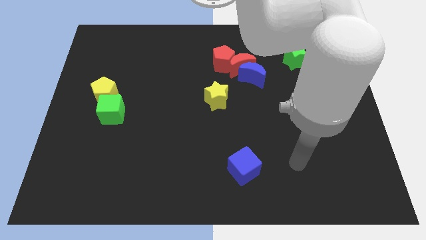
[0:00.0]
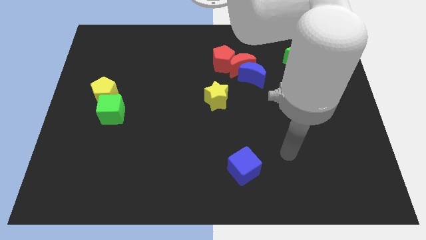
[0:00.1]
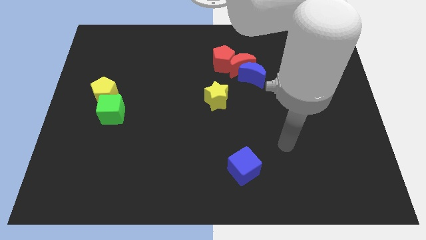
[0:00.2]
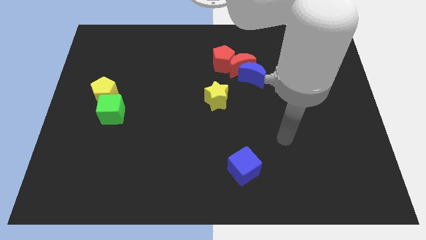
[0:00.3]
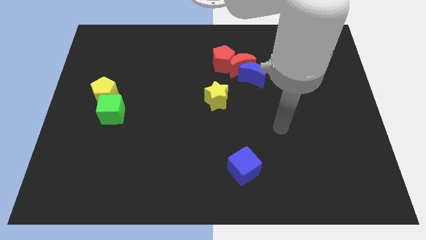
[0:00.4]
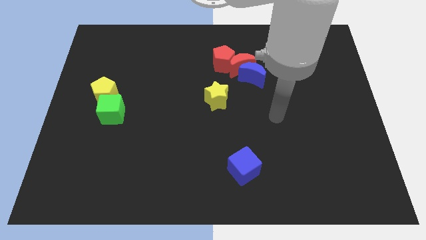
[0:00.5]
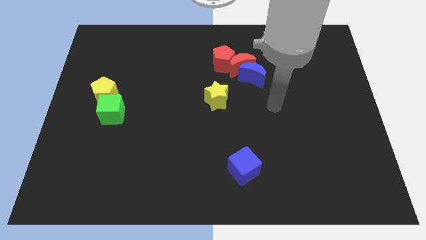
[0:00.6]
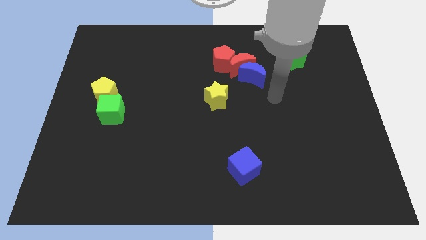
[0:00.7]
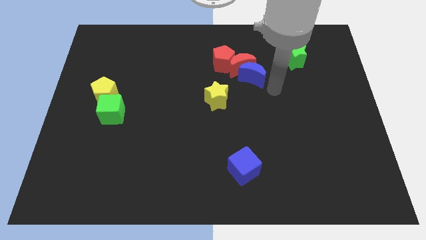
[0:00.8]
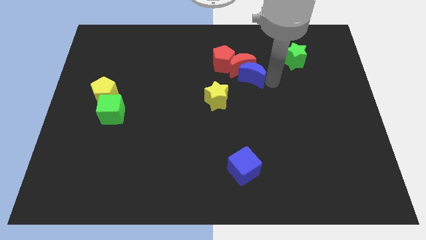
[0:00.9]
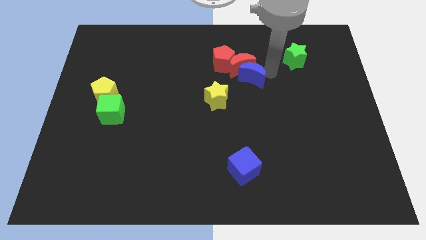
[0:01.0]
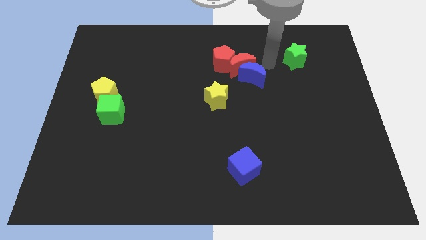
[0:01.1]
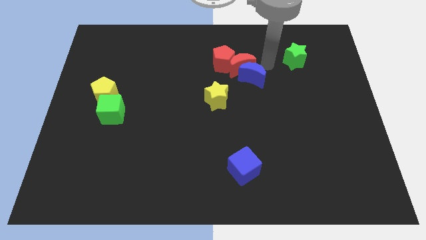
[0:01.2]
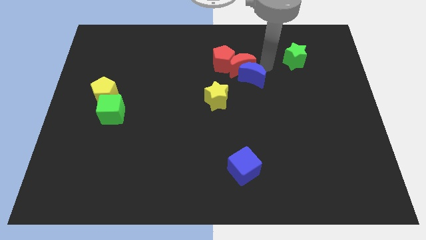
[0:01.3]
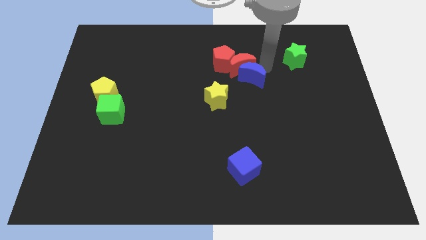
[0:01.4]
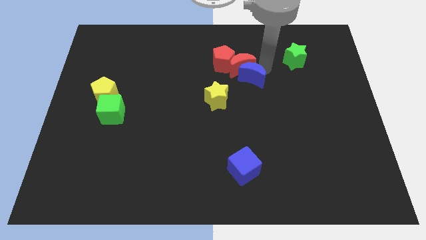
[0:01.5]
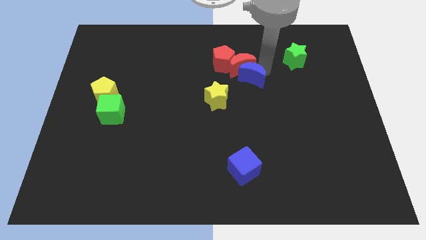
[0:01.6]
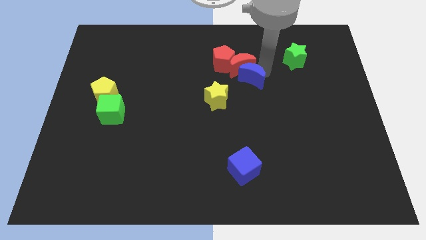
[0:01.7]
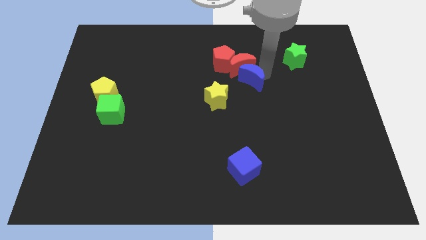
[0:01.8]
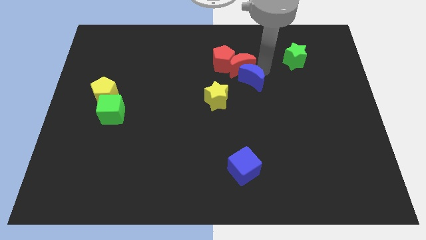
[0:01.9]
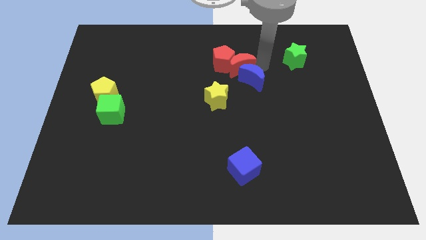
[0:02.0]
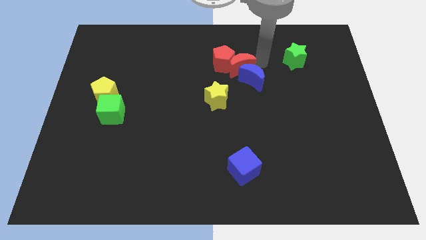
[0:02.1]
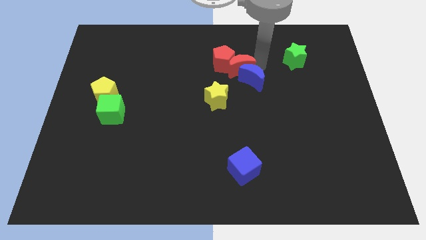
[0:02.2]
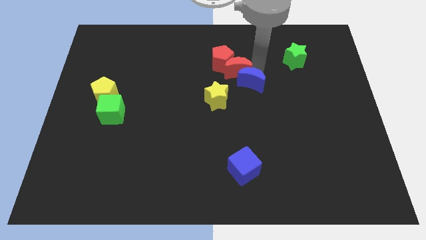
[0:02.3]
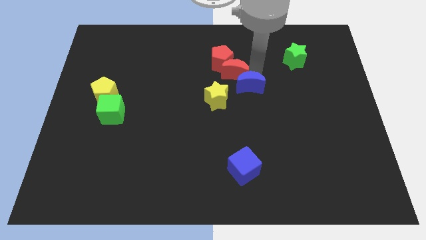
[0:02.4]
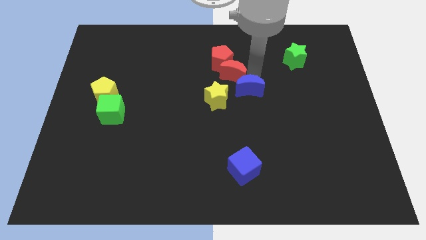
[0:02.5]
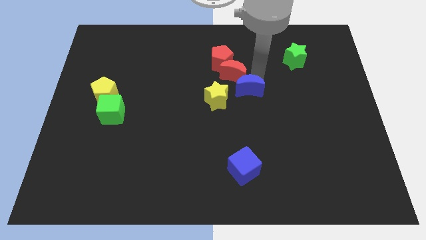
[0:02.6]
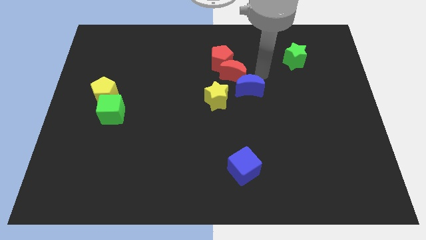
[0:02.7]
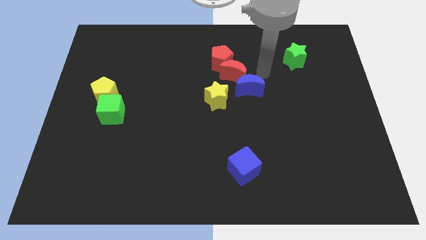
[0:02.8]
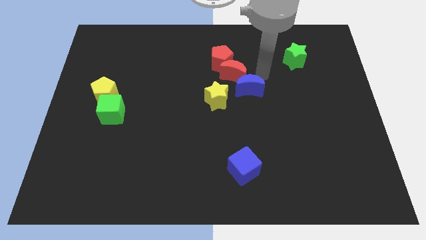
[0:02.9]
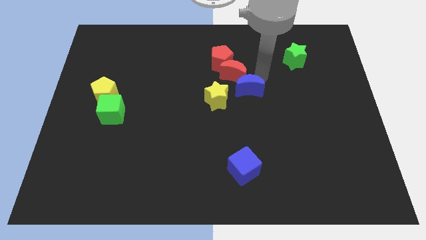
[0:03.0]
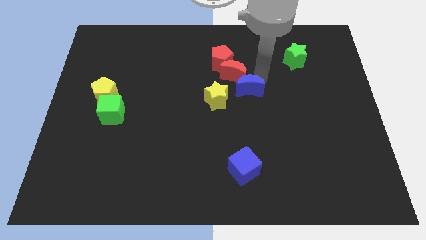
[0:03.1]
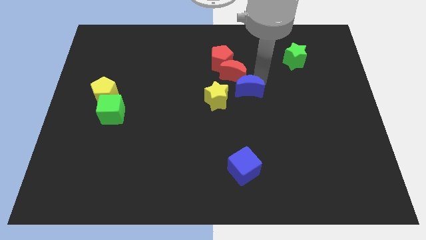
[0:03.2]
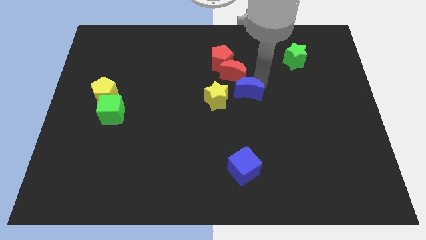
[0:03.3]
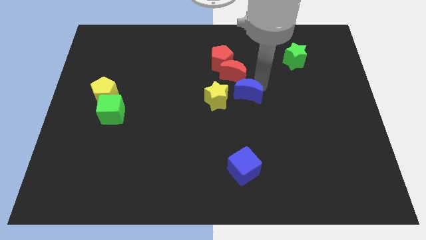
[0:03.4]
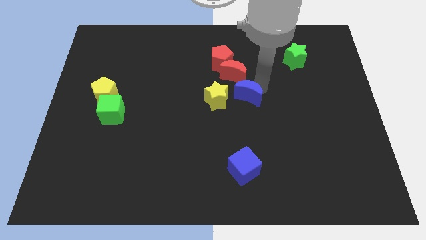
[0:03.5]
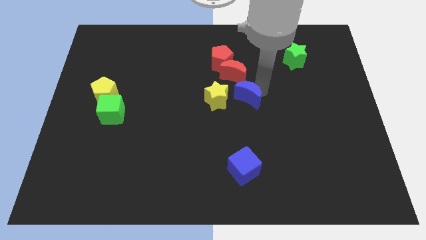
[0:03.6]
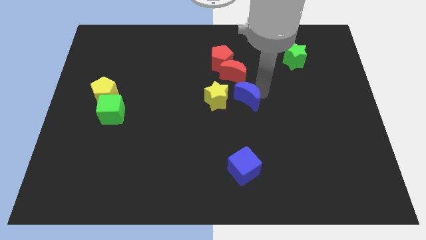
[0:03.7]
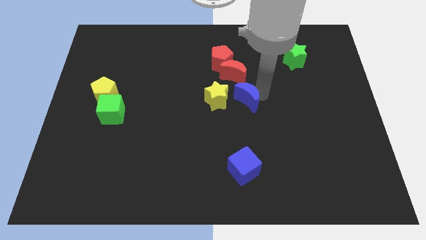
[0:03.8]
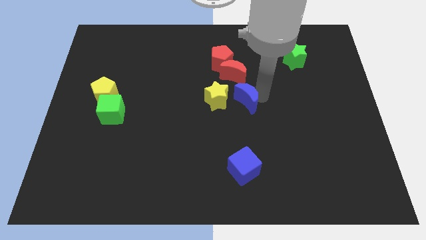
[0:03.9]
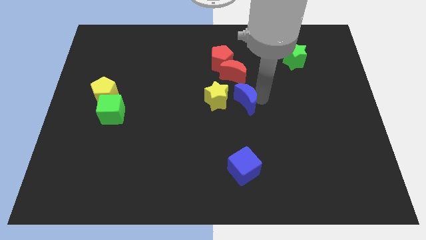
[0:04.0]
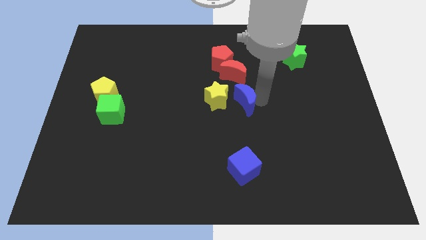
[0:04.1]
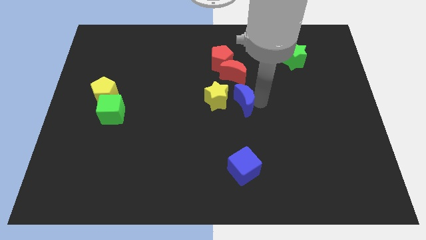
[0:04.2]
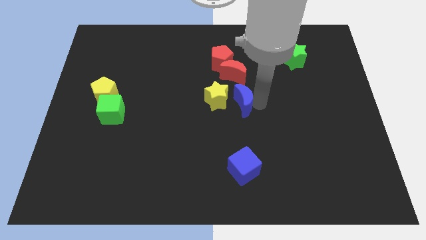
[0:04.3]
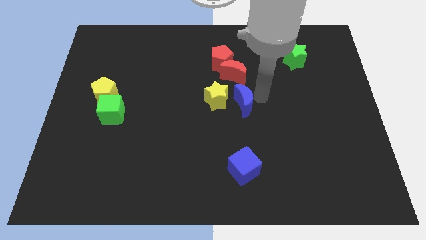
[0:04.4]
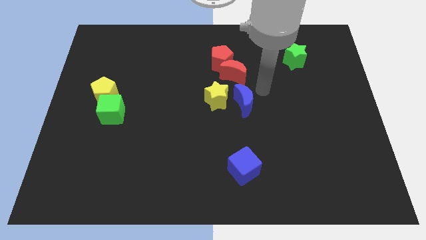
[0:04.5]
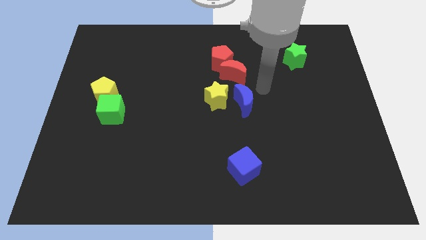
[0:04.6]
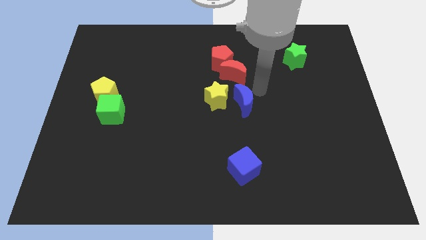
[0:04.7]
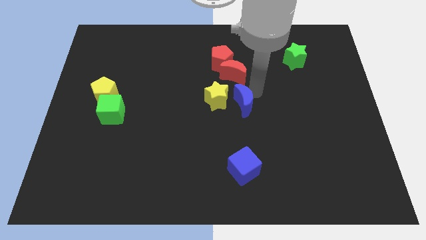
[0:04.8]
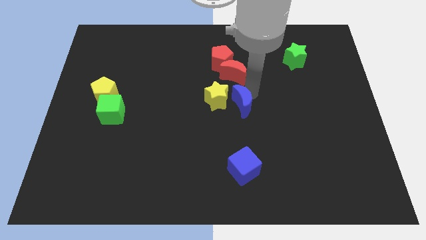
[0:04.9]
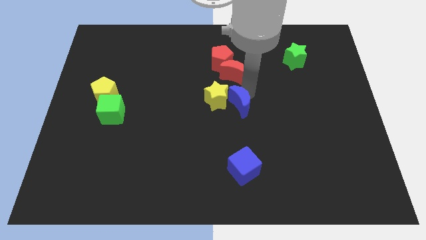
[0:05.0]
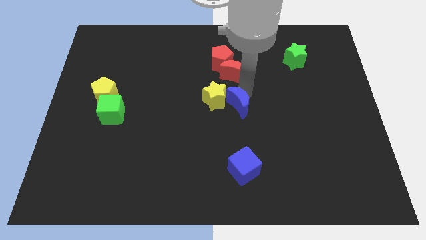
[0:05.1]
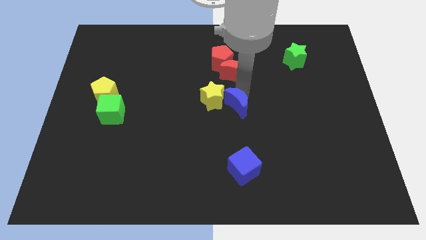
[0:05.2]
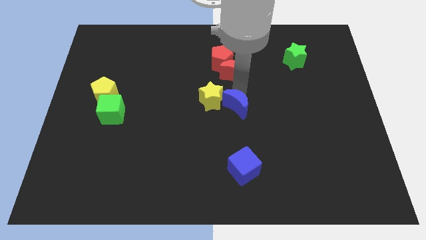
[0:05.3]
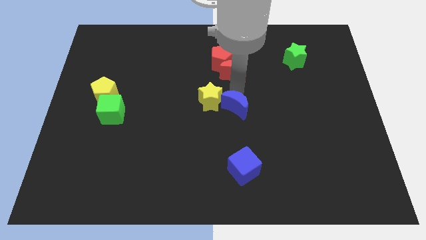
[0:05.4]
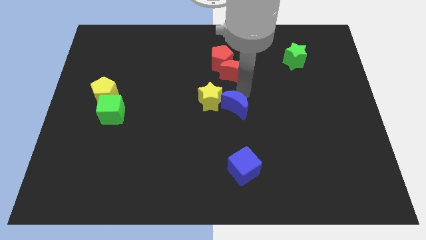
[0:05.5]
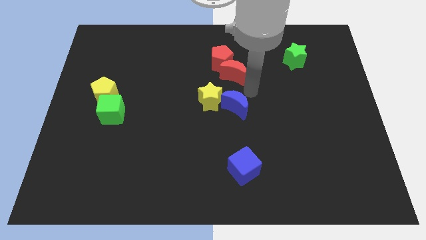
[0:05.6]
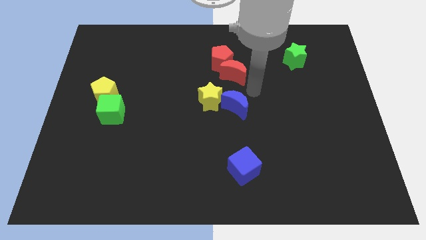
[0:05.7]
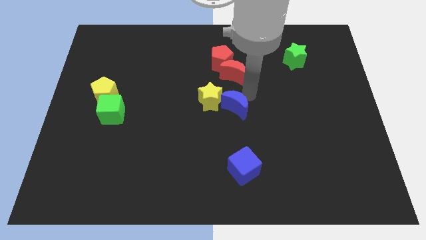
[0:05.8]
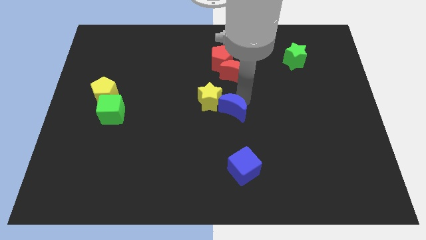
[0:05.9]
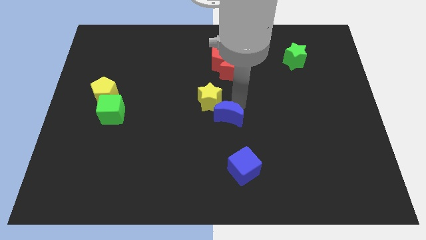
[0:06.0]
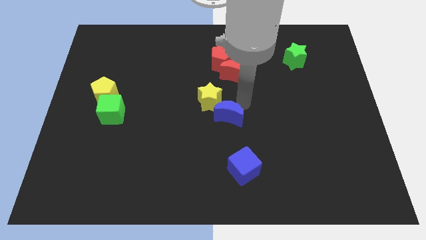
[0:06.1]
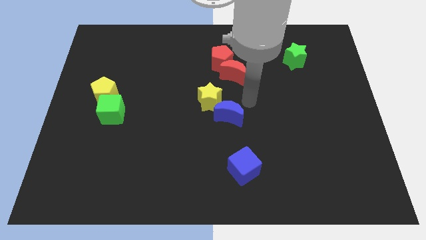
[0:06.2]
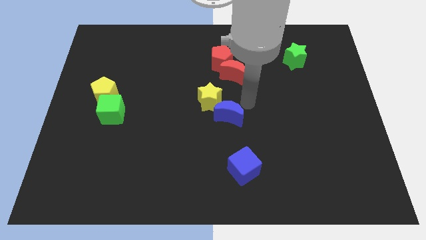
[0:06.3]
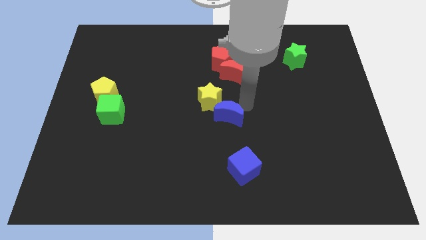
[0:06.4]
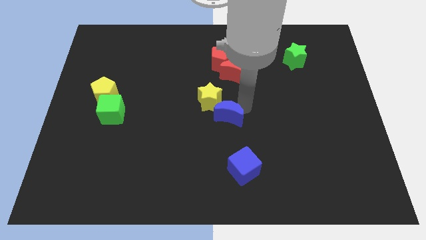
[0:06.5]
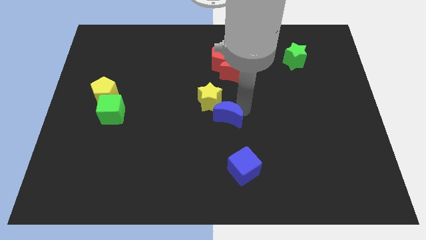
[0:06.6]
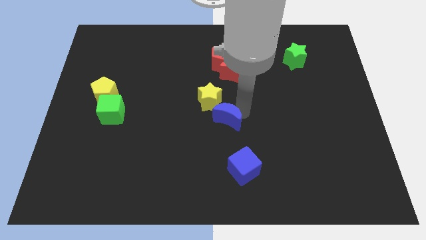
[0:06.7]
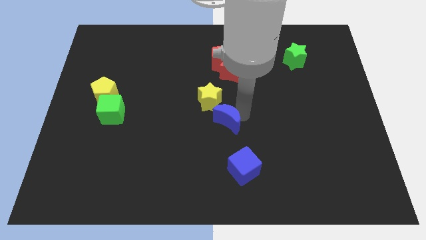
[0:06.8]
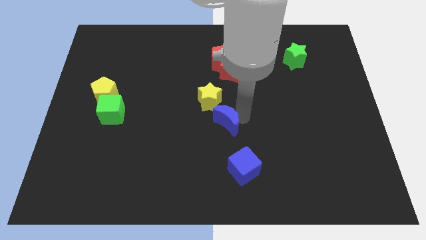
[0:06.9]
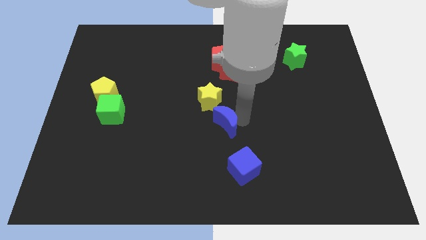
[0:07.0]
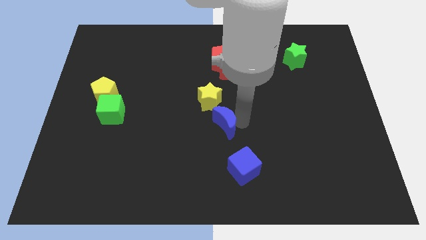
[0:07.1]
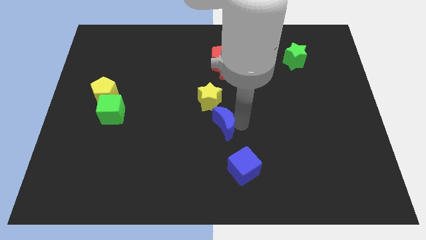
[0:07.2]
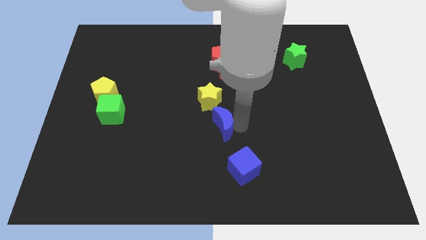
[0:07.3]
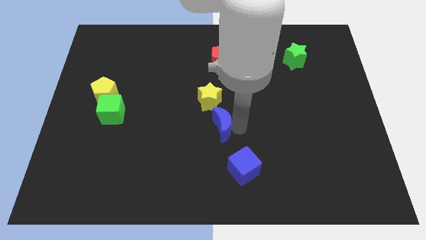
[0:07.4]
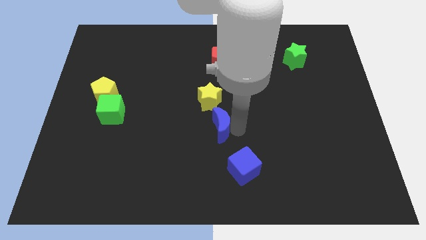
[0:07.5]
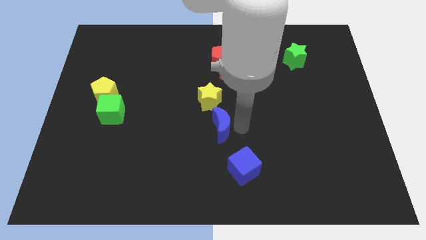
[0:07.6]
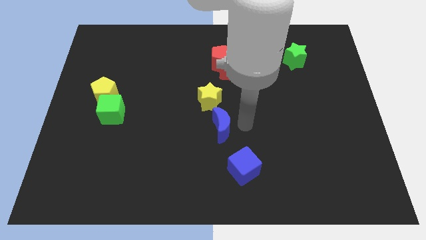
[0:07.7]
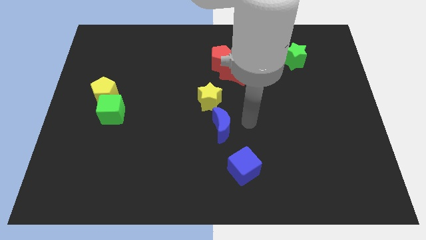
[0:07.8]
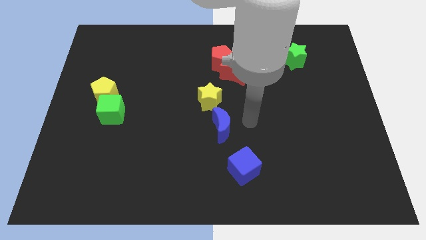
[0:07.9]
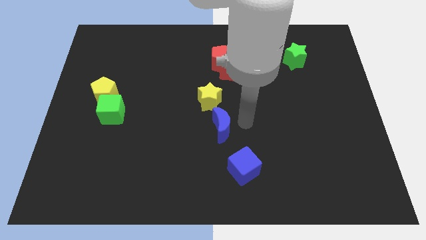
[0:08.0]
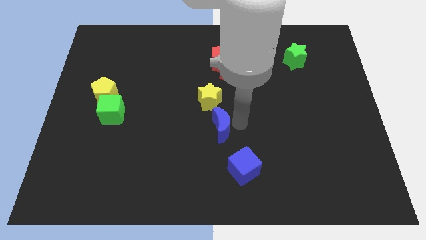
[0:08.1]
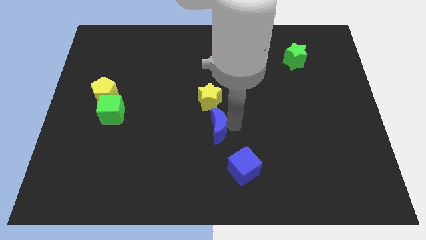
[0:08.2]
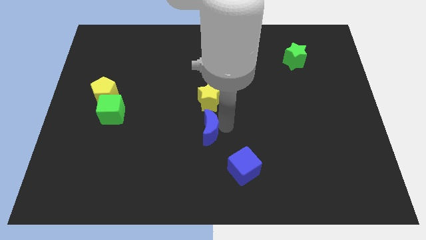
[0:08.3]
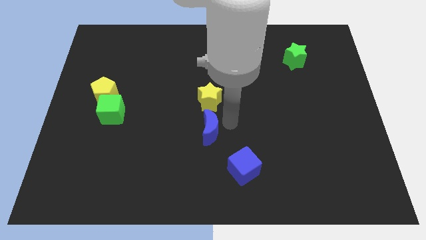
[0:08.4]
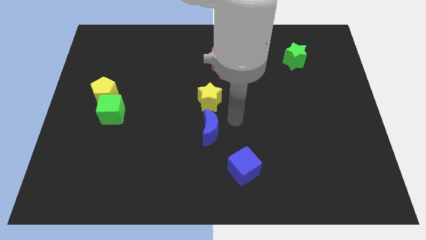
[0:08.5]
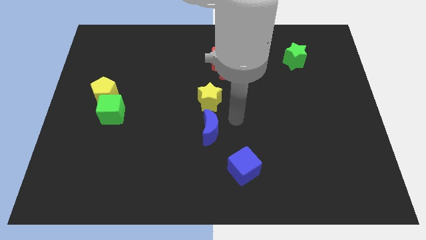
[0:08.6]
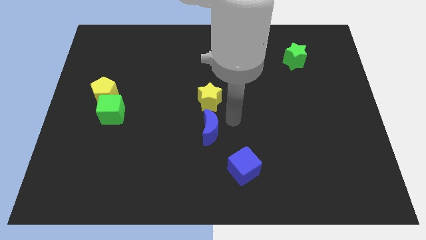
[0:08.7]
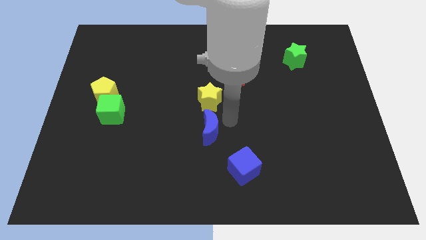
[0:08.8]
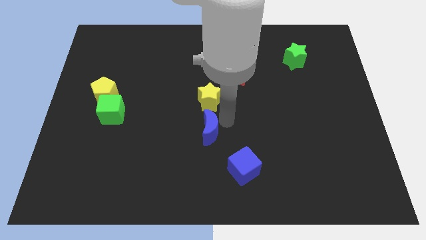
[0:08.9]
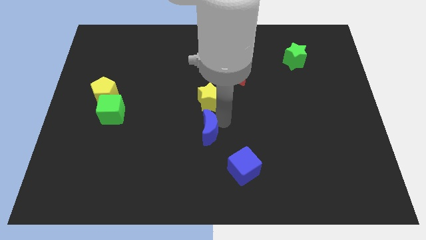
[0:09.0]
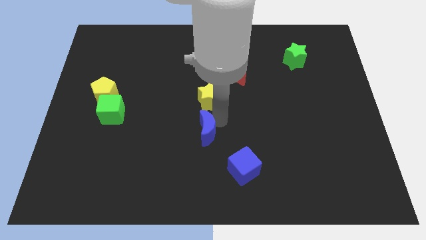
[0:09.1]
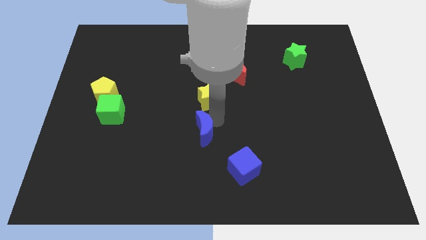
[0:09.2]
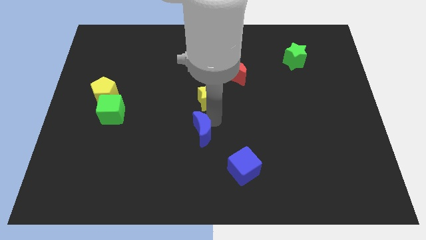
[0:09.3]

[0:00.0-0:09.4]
move the blue moon diagonally downwards and to the left
